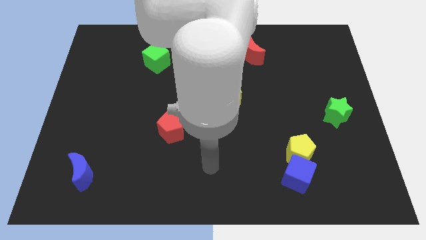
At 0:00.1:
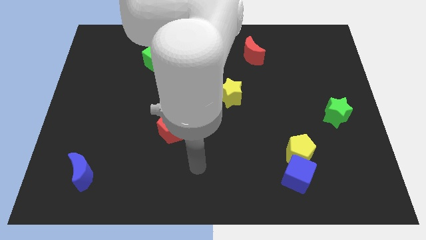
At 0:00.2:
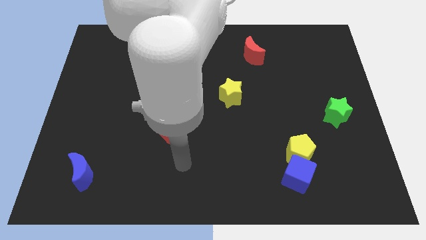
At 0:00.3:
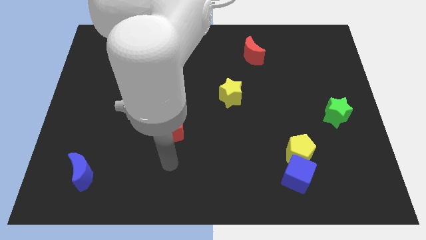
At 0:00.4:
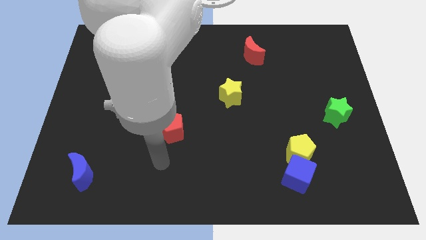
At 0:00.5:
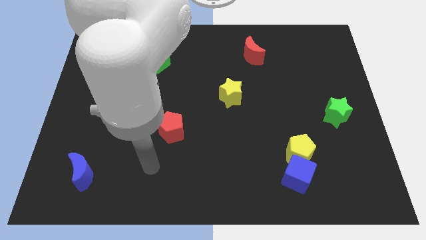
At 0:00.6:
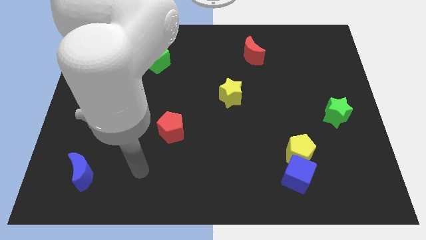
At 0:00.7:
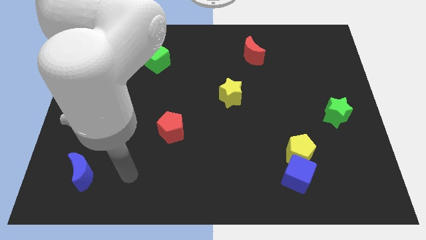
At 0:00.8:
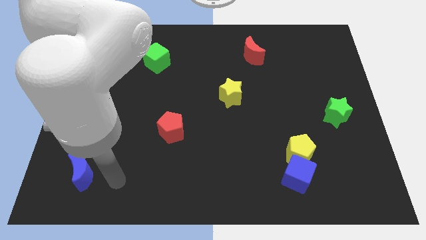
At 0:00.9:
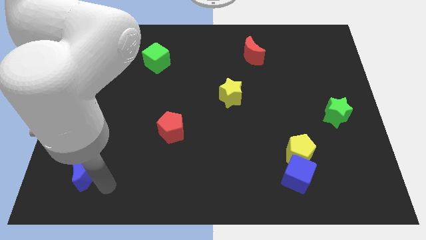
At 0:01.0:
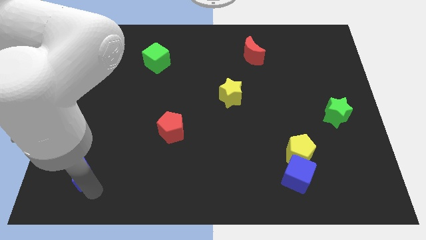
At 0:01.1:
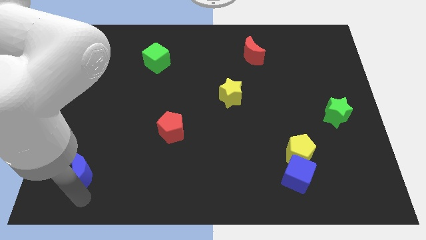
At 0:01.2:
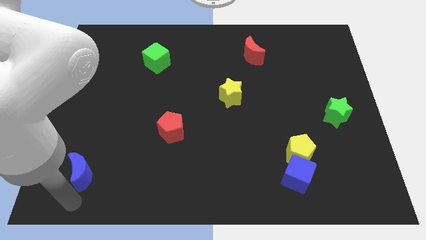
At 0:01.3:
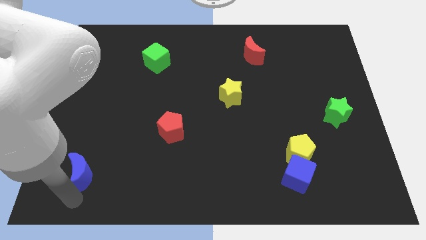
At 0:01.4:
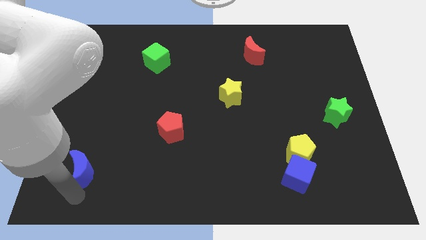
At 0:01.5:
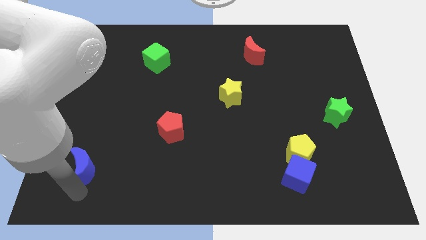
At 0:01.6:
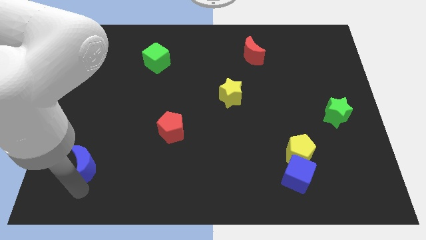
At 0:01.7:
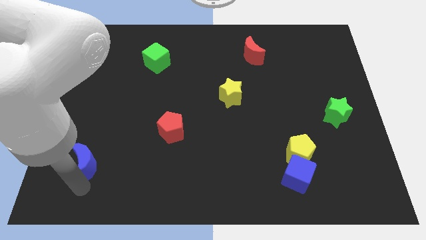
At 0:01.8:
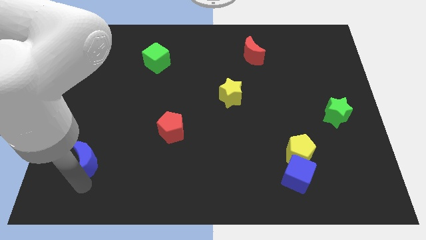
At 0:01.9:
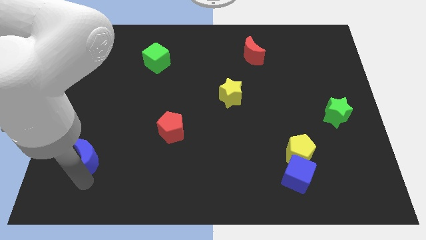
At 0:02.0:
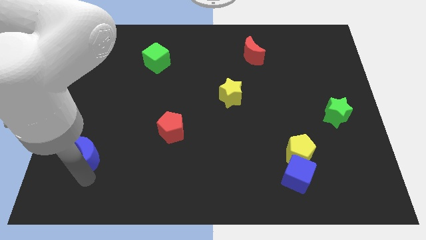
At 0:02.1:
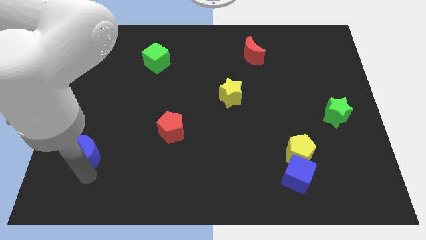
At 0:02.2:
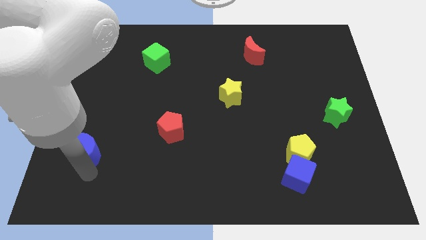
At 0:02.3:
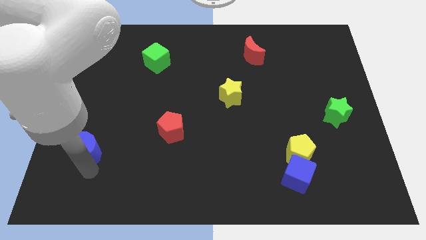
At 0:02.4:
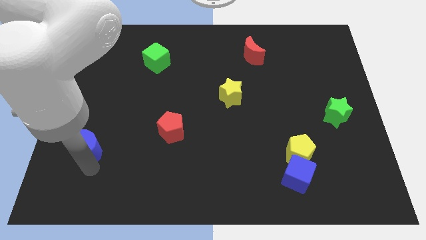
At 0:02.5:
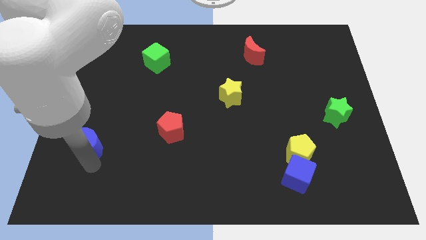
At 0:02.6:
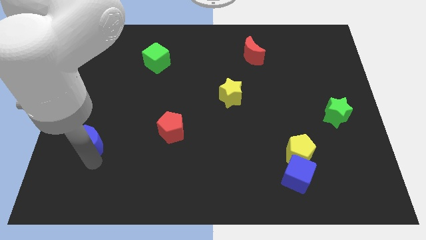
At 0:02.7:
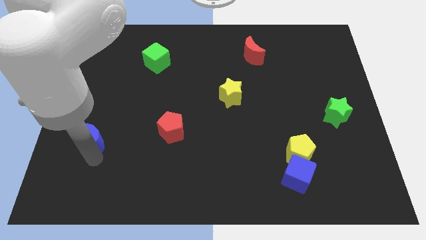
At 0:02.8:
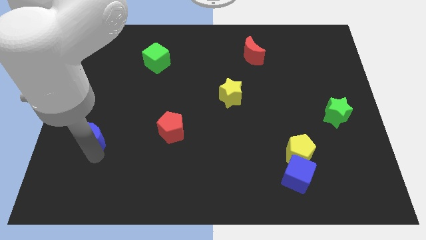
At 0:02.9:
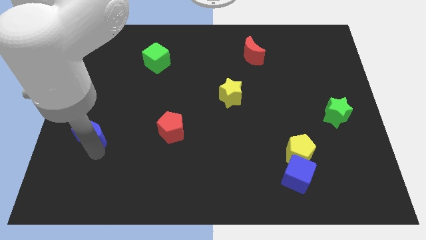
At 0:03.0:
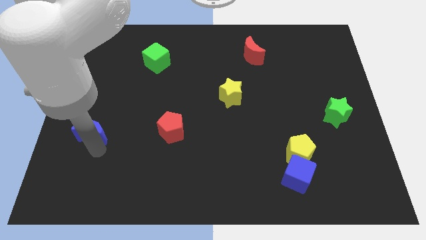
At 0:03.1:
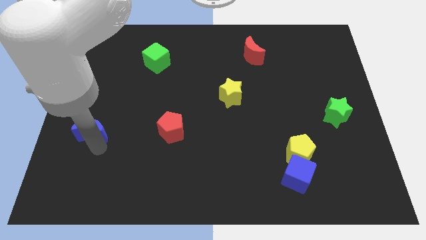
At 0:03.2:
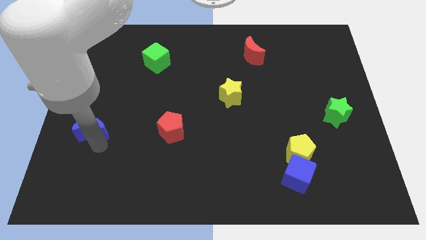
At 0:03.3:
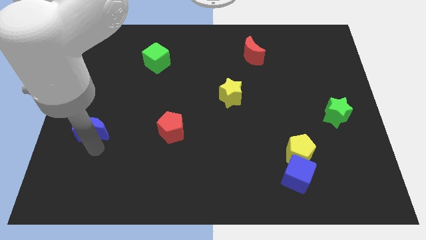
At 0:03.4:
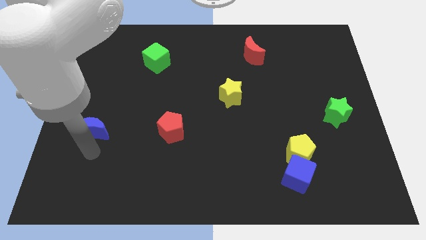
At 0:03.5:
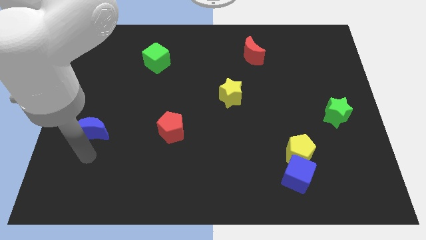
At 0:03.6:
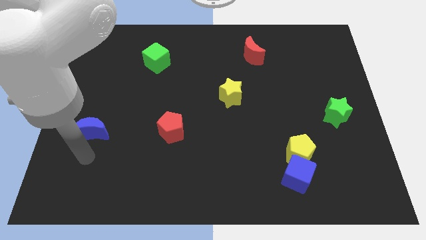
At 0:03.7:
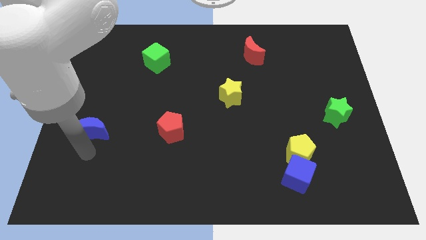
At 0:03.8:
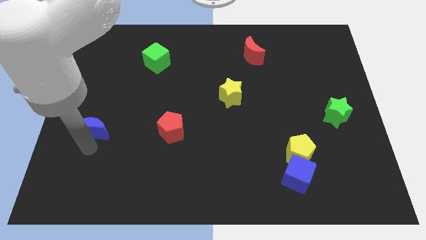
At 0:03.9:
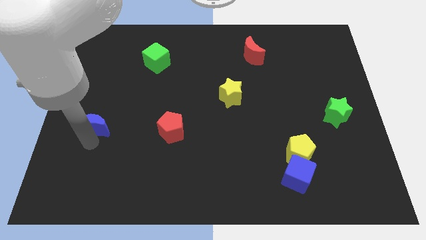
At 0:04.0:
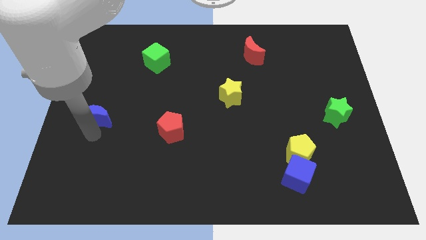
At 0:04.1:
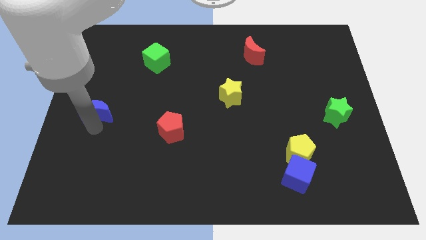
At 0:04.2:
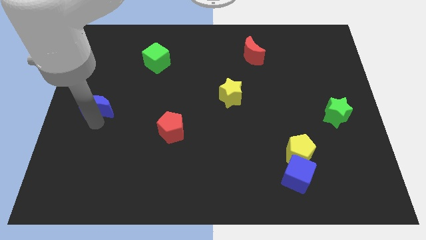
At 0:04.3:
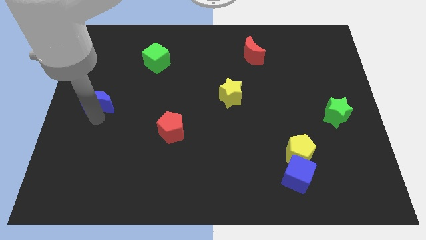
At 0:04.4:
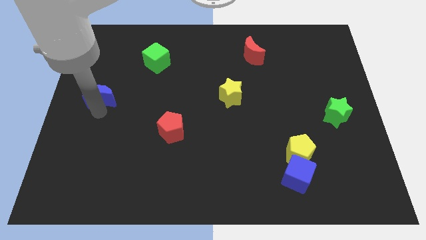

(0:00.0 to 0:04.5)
push the blue moon upwards

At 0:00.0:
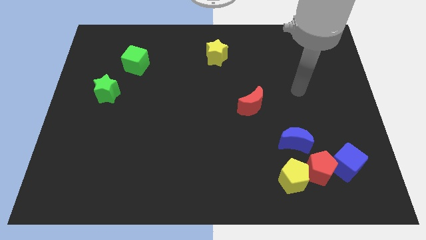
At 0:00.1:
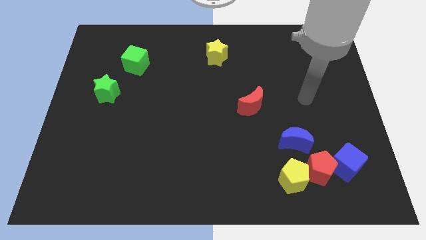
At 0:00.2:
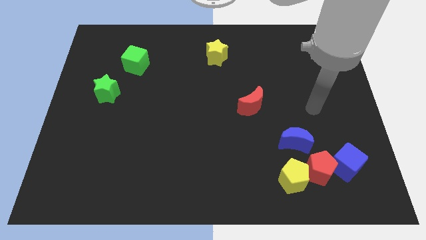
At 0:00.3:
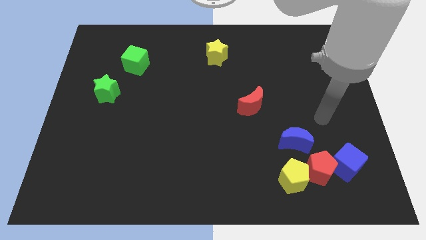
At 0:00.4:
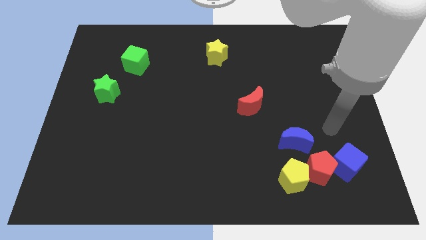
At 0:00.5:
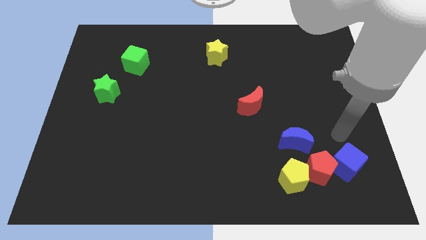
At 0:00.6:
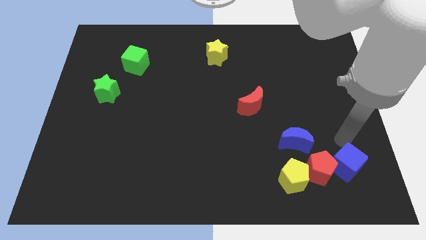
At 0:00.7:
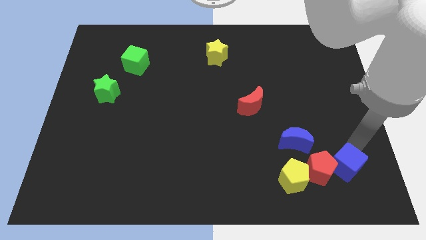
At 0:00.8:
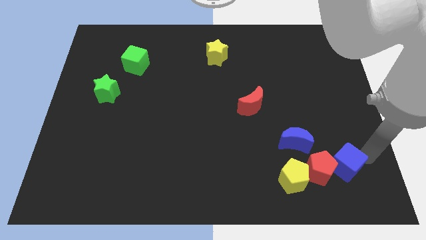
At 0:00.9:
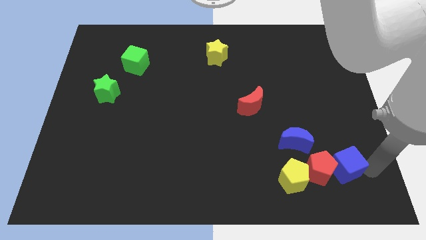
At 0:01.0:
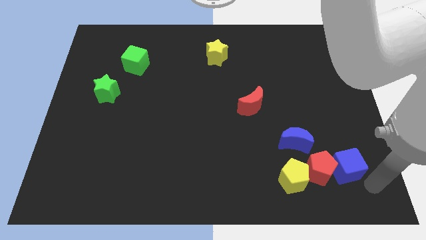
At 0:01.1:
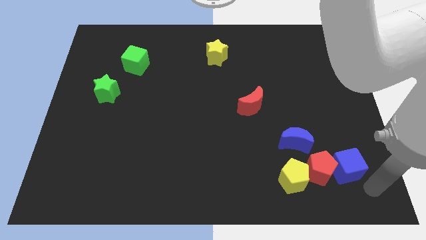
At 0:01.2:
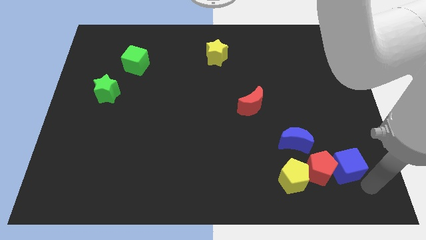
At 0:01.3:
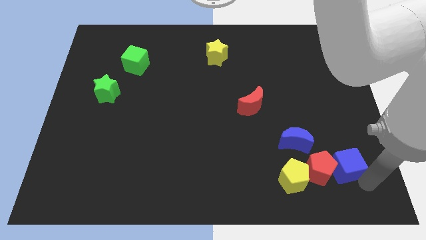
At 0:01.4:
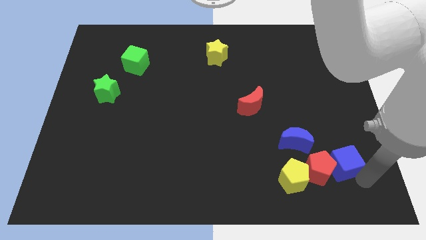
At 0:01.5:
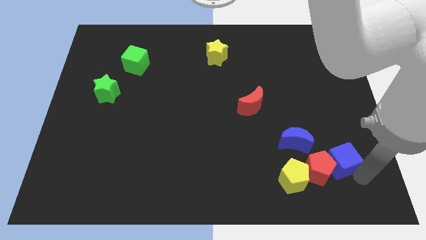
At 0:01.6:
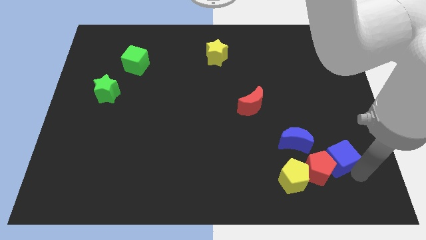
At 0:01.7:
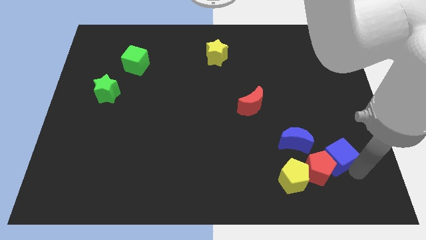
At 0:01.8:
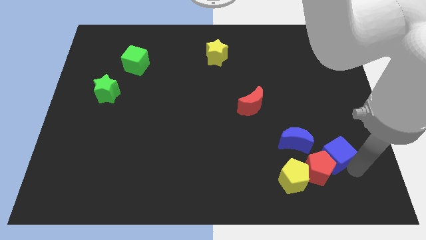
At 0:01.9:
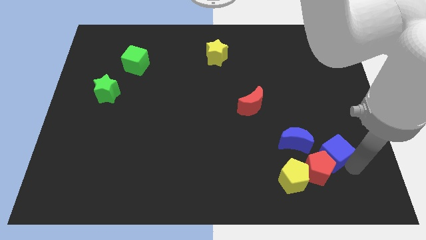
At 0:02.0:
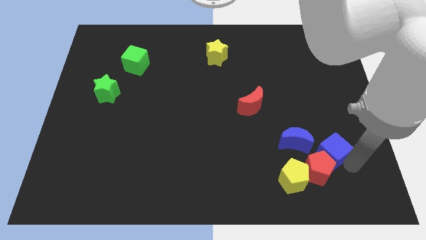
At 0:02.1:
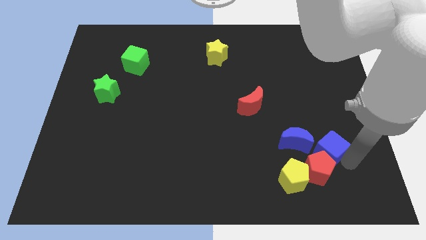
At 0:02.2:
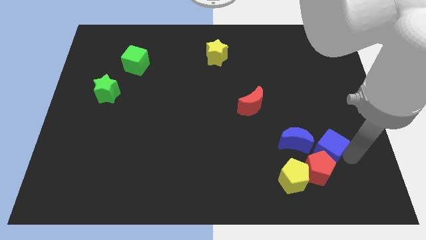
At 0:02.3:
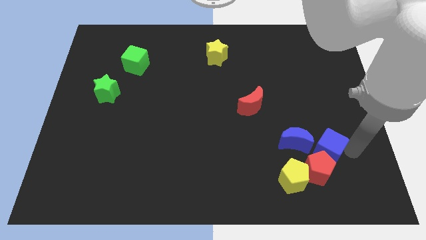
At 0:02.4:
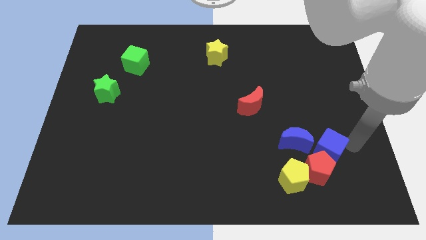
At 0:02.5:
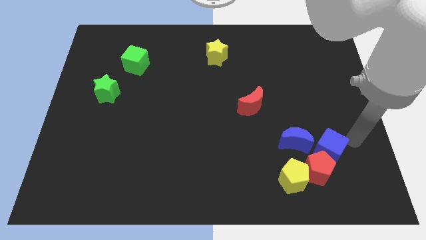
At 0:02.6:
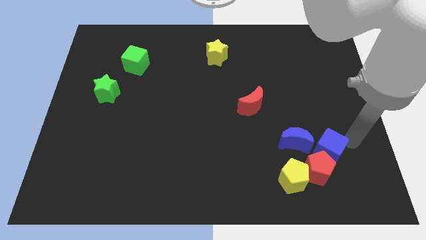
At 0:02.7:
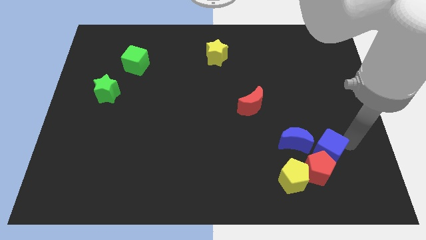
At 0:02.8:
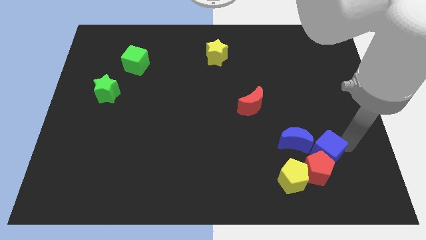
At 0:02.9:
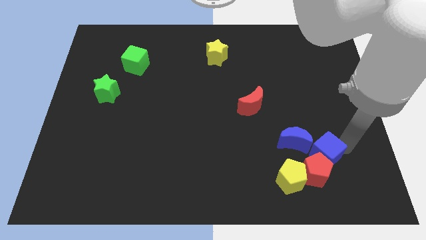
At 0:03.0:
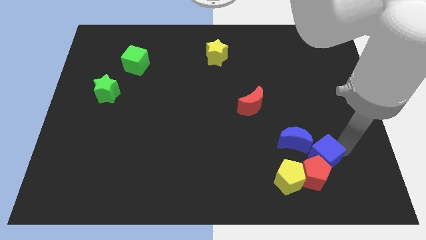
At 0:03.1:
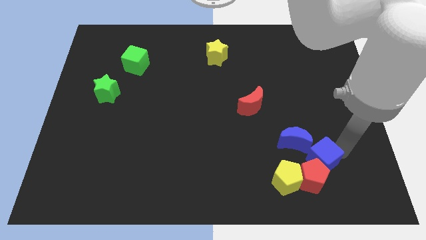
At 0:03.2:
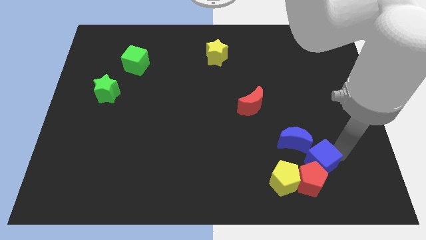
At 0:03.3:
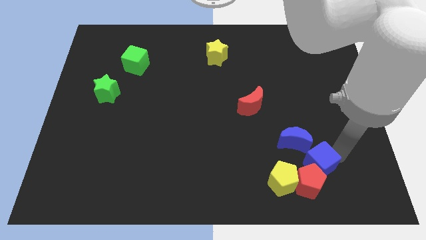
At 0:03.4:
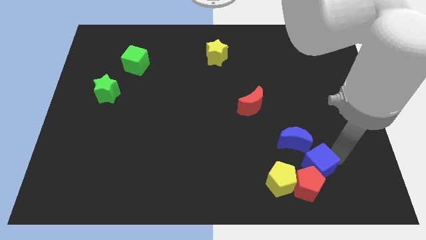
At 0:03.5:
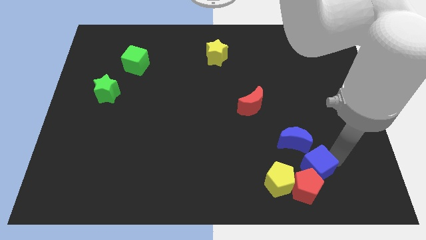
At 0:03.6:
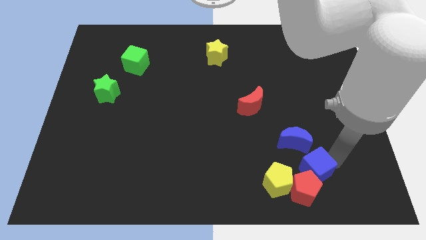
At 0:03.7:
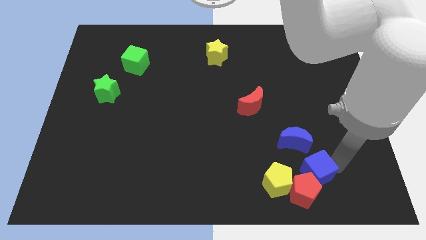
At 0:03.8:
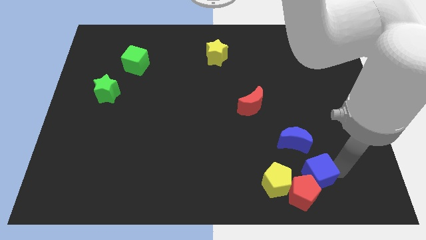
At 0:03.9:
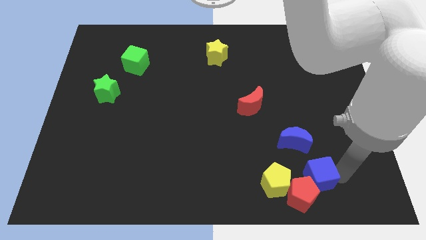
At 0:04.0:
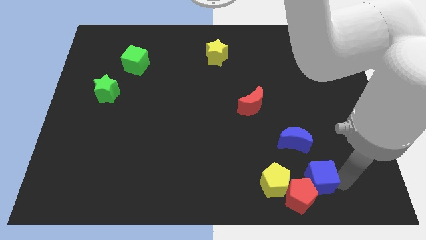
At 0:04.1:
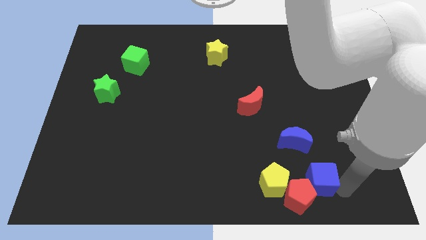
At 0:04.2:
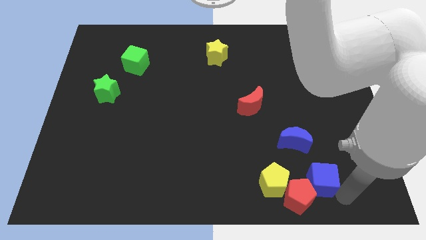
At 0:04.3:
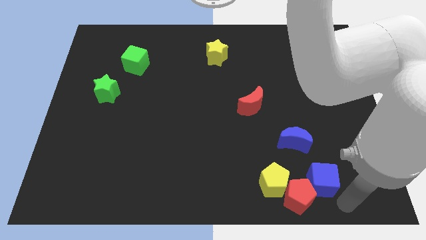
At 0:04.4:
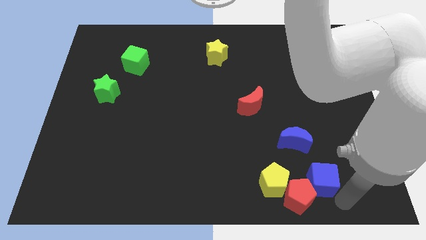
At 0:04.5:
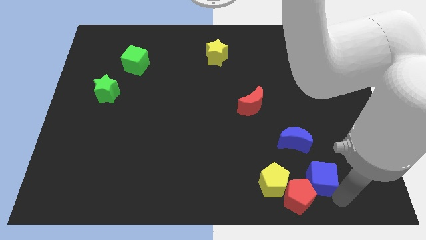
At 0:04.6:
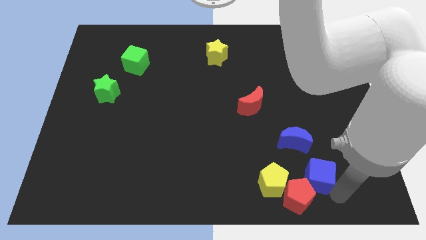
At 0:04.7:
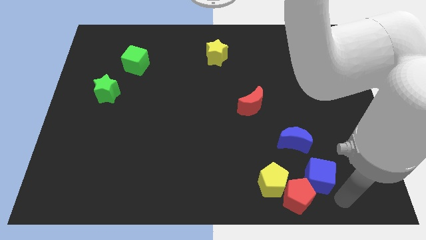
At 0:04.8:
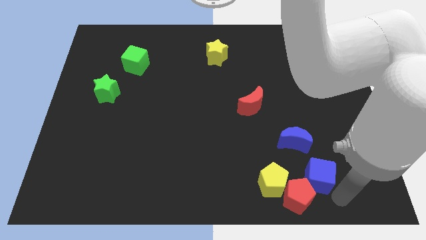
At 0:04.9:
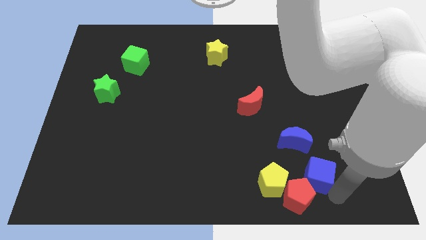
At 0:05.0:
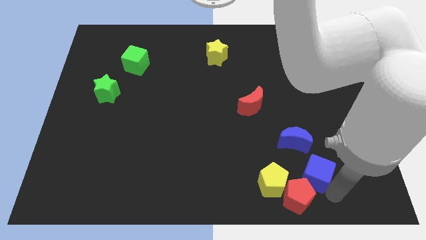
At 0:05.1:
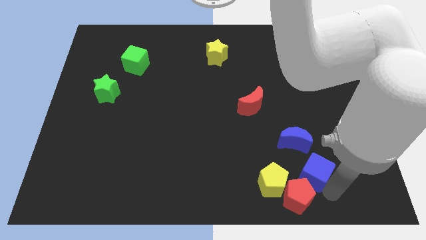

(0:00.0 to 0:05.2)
push the blue cube a little bit to the left
